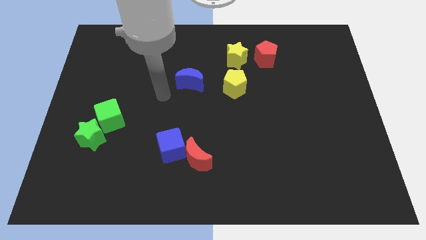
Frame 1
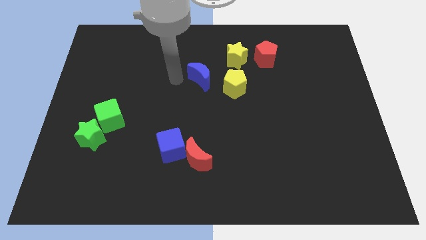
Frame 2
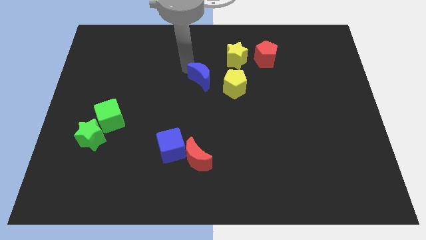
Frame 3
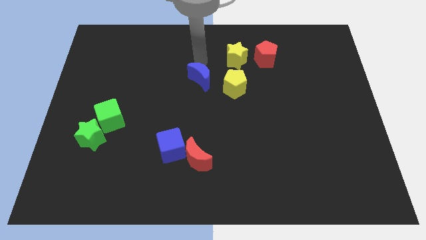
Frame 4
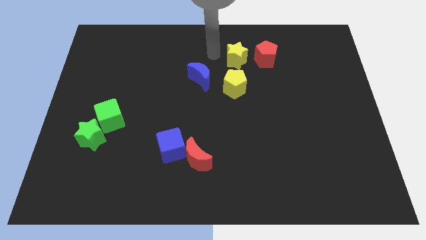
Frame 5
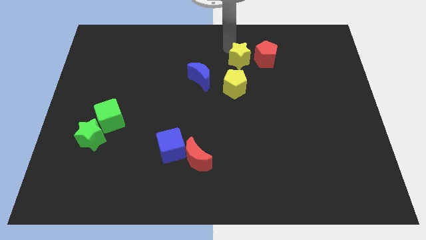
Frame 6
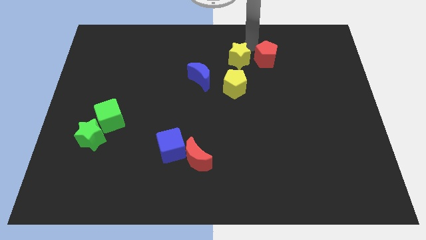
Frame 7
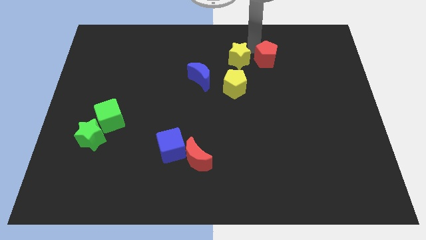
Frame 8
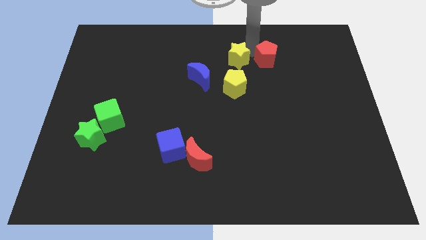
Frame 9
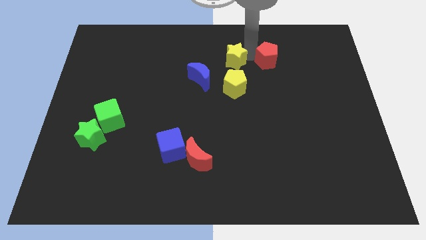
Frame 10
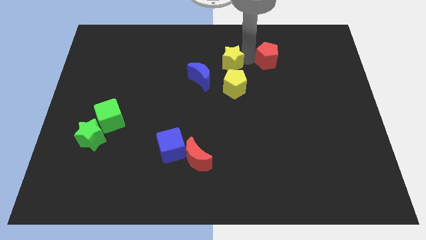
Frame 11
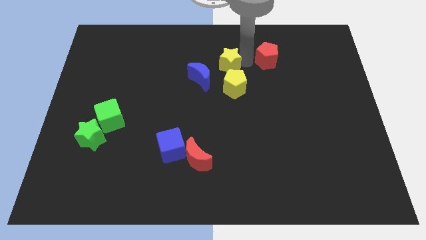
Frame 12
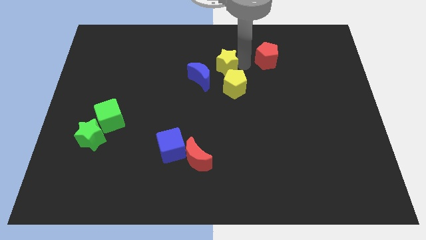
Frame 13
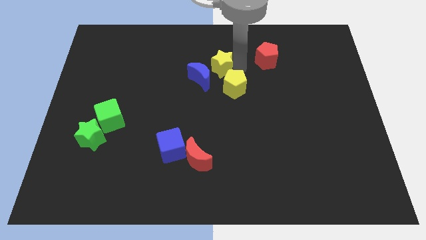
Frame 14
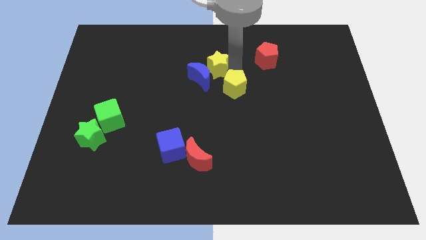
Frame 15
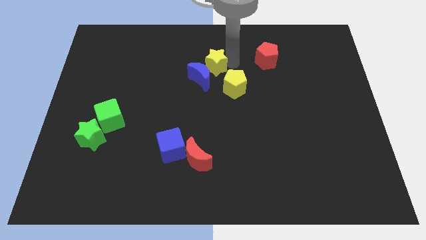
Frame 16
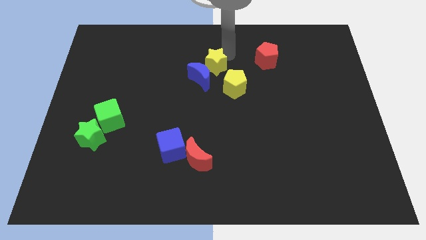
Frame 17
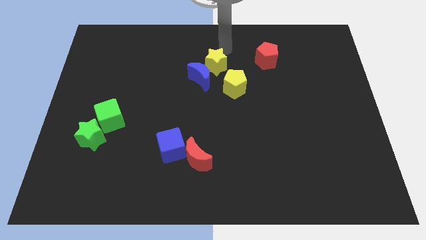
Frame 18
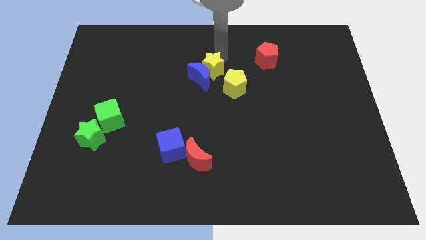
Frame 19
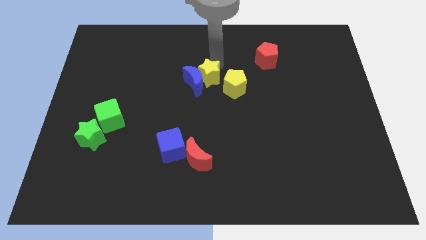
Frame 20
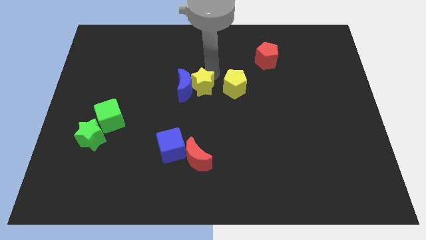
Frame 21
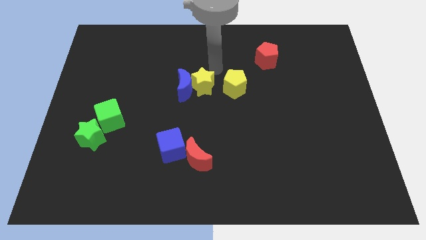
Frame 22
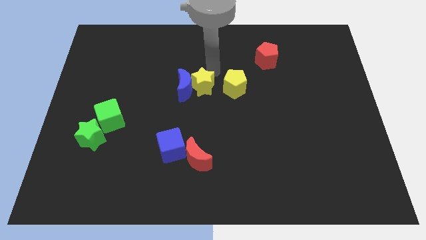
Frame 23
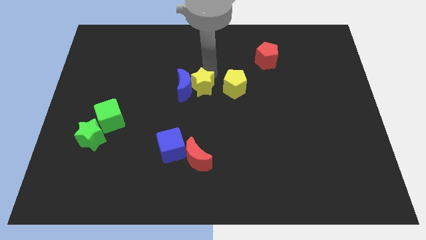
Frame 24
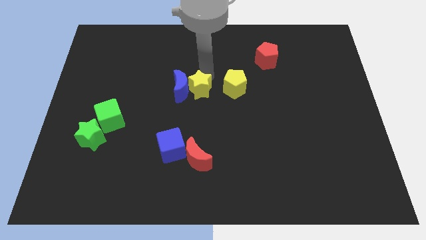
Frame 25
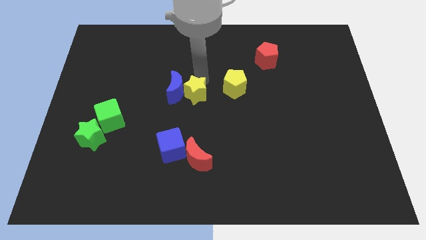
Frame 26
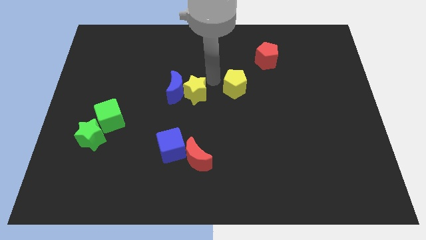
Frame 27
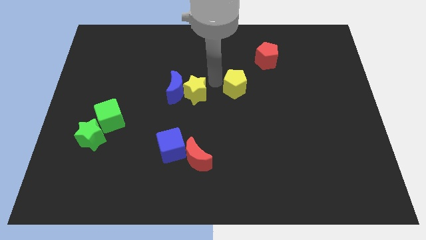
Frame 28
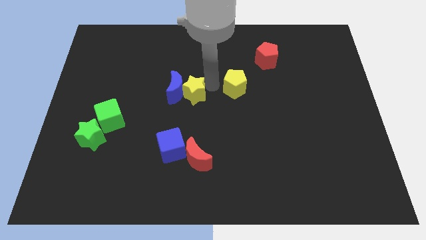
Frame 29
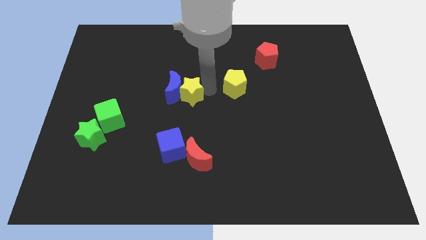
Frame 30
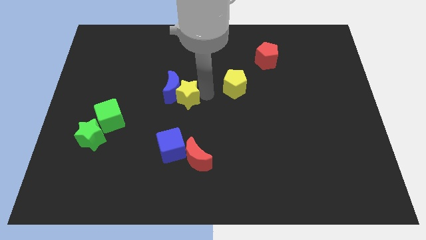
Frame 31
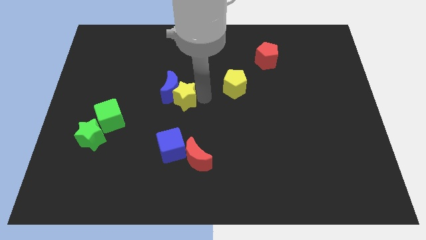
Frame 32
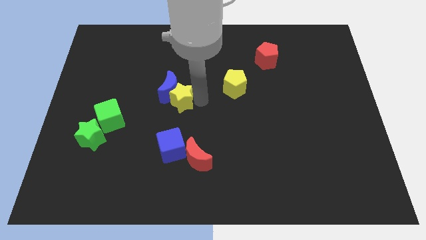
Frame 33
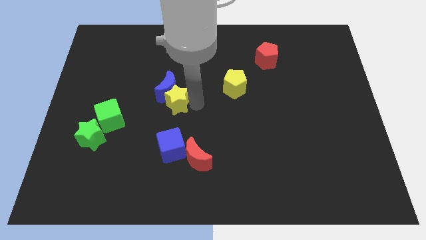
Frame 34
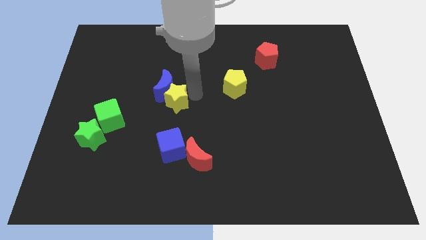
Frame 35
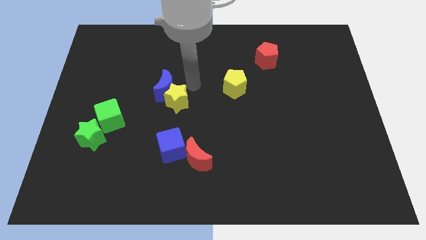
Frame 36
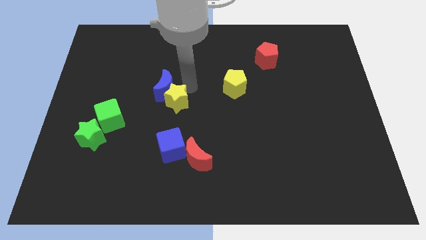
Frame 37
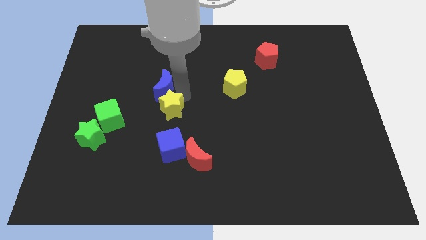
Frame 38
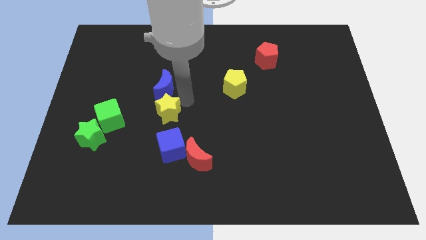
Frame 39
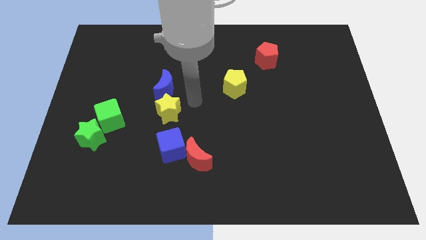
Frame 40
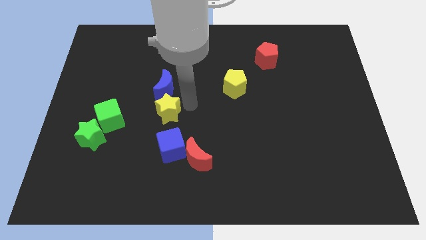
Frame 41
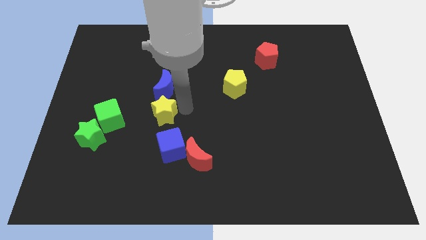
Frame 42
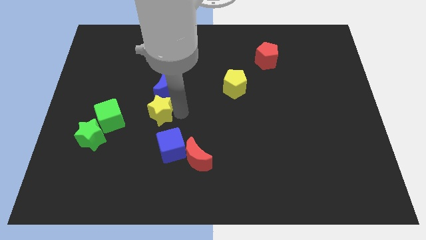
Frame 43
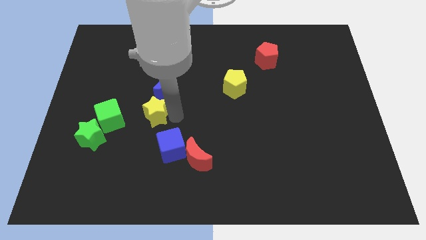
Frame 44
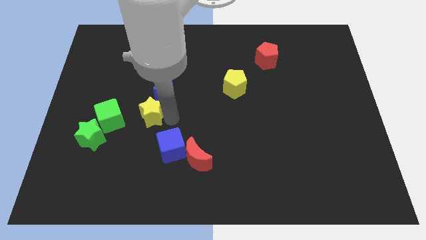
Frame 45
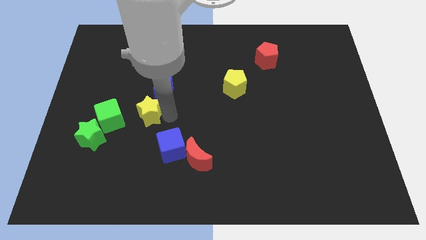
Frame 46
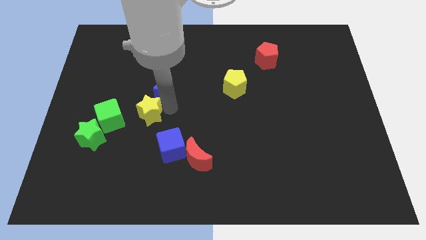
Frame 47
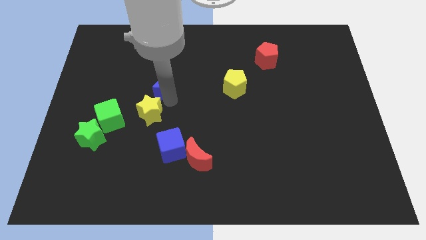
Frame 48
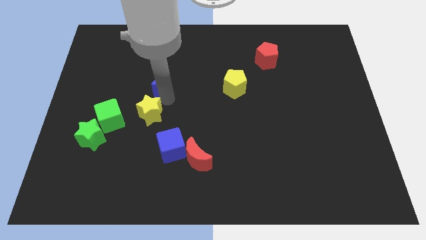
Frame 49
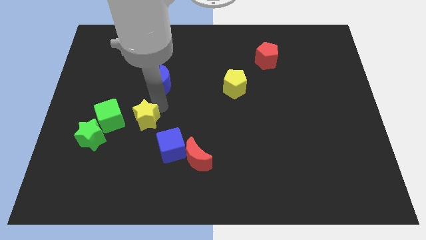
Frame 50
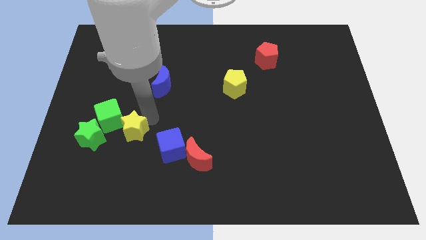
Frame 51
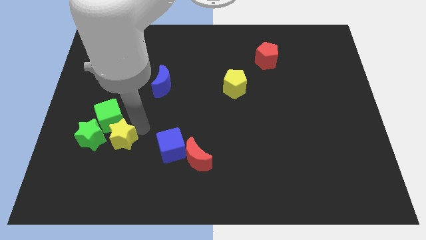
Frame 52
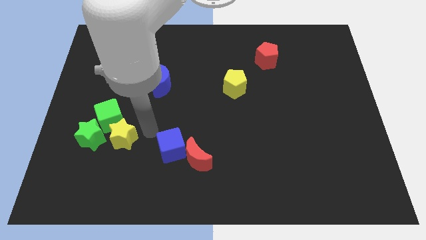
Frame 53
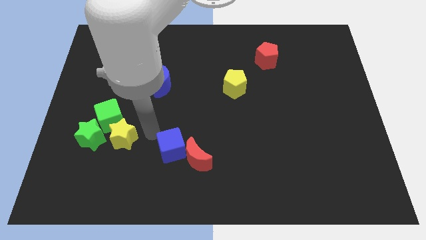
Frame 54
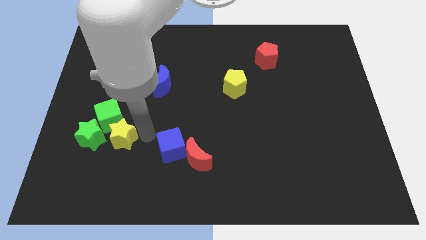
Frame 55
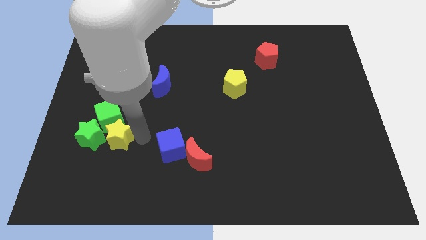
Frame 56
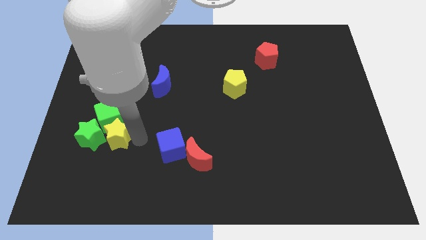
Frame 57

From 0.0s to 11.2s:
push the yellow star close to the green star
